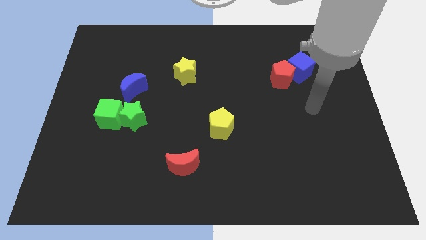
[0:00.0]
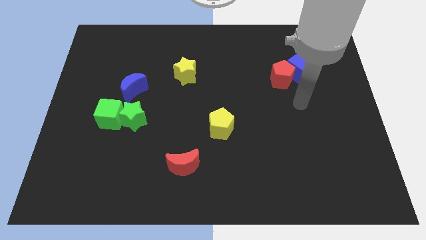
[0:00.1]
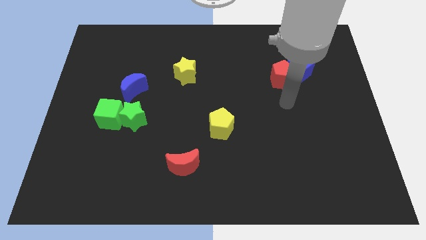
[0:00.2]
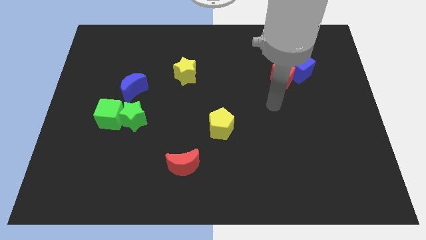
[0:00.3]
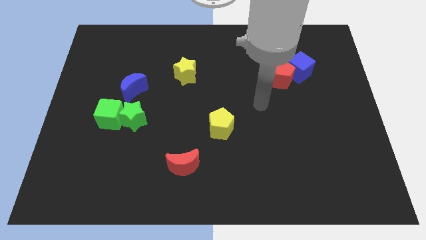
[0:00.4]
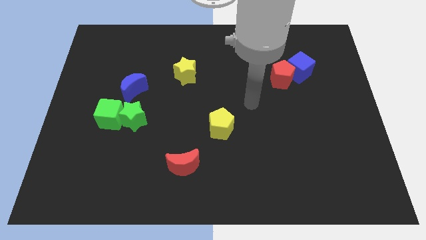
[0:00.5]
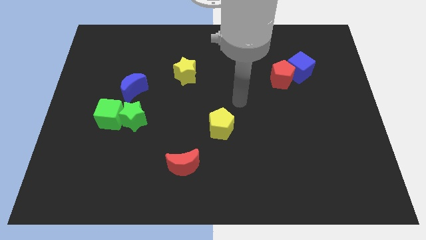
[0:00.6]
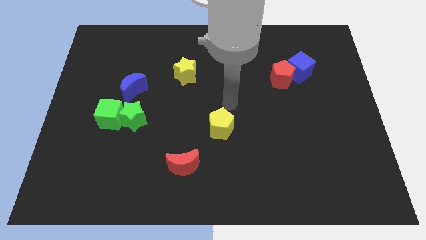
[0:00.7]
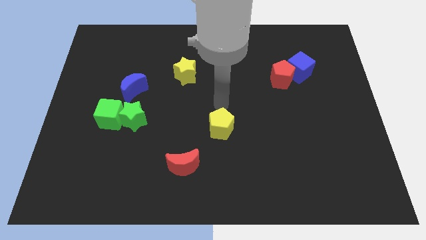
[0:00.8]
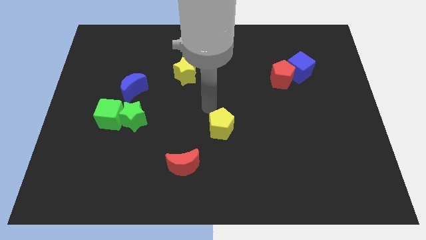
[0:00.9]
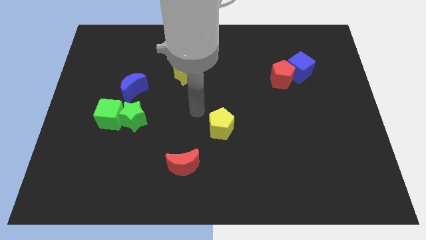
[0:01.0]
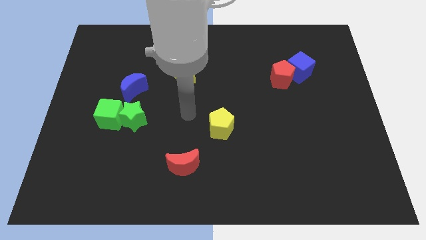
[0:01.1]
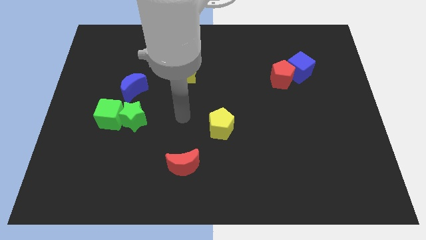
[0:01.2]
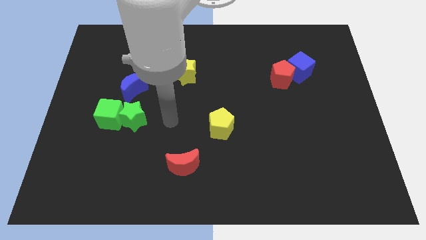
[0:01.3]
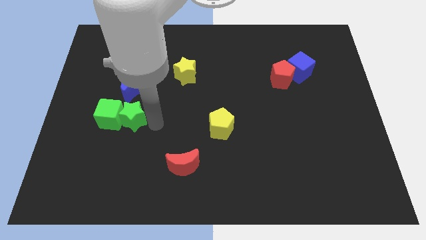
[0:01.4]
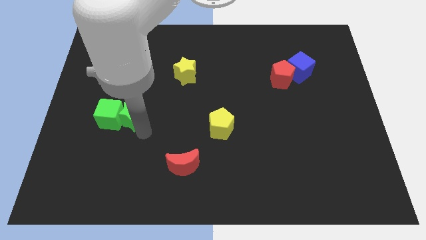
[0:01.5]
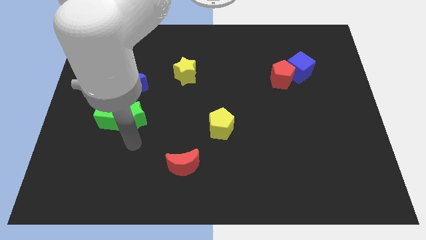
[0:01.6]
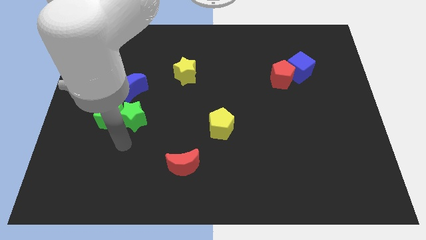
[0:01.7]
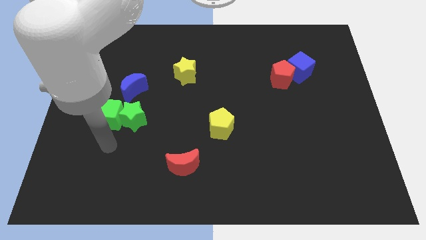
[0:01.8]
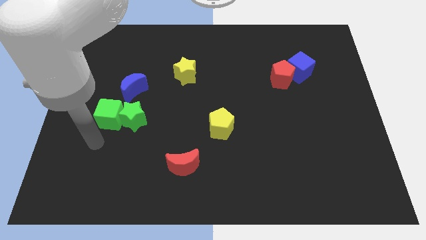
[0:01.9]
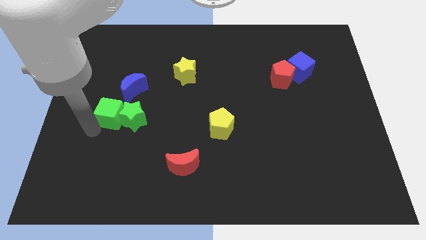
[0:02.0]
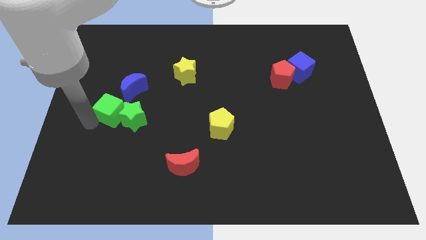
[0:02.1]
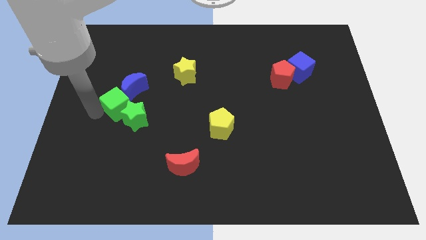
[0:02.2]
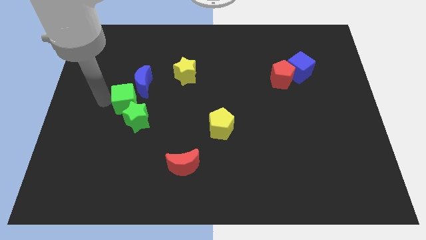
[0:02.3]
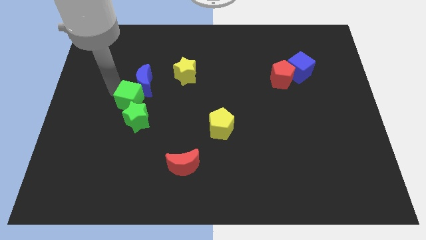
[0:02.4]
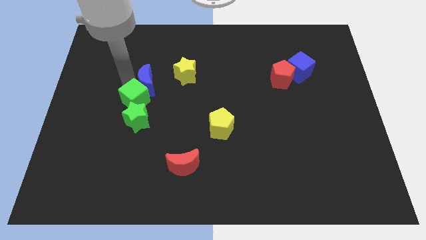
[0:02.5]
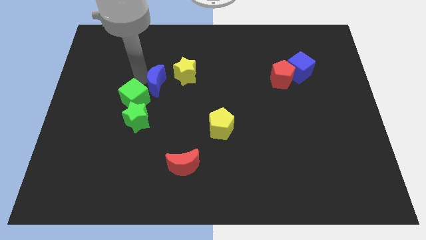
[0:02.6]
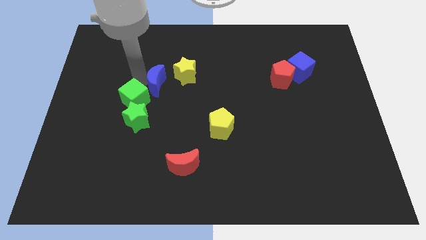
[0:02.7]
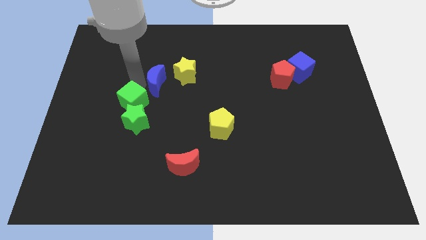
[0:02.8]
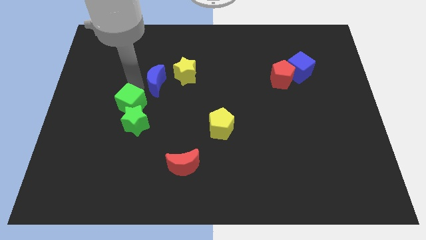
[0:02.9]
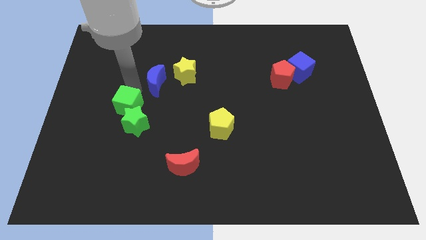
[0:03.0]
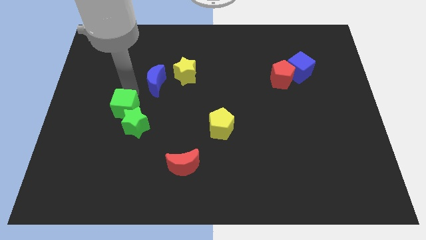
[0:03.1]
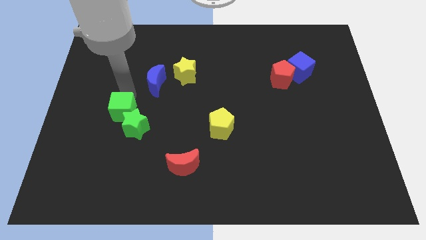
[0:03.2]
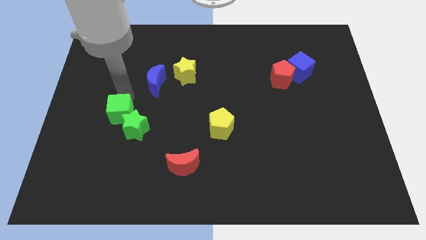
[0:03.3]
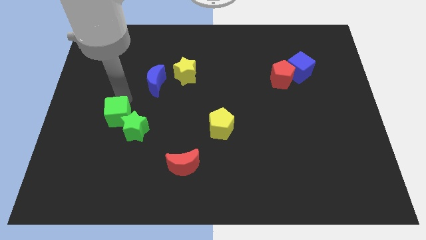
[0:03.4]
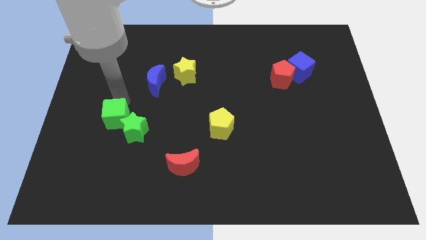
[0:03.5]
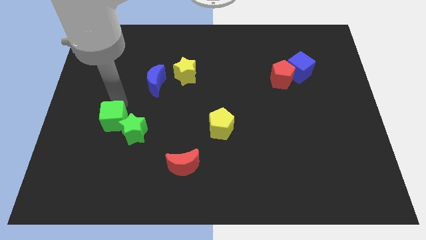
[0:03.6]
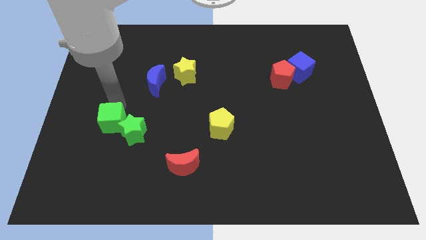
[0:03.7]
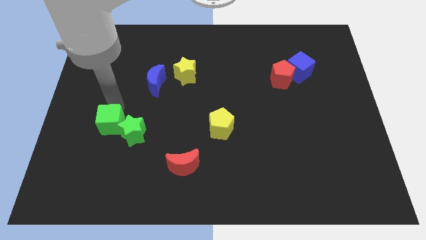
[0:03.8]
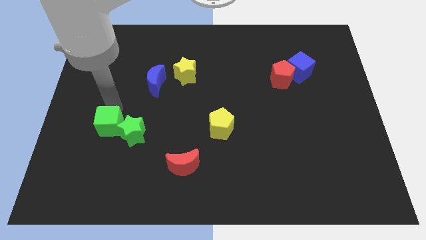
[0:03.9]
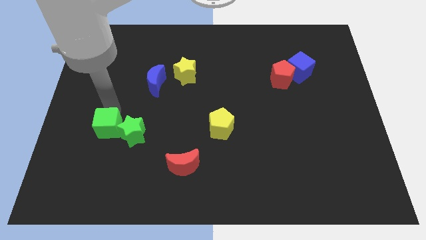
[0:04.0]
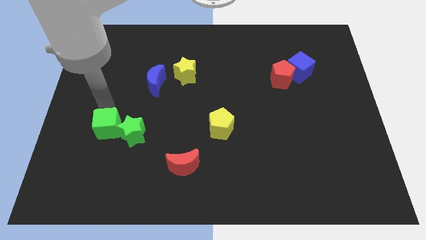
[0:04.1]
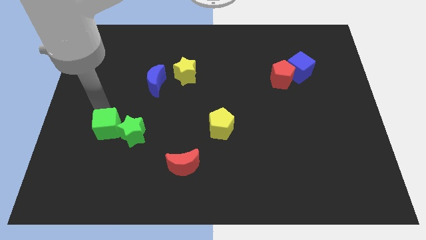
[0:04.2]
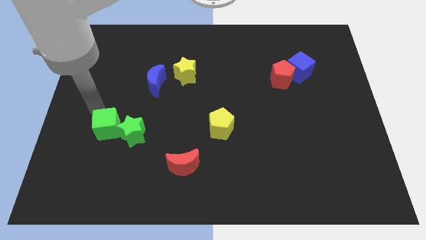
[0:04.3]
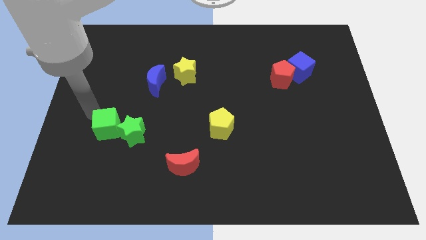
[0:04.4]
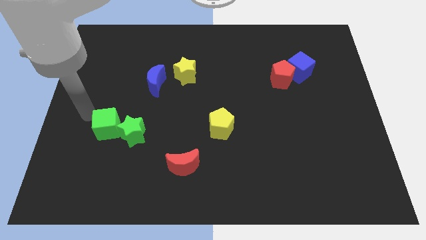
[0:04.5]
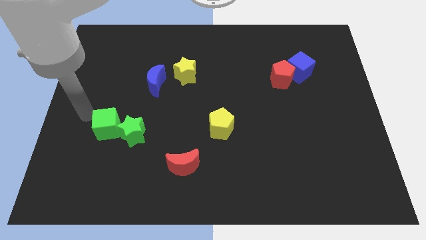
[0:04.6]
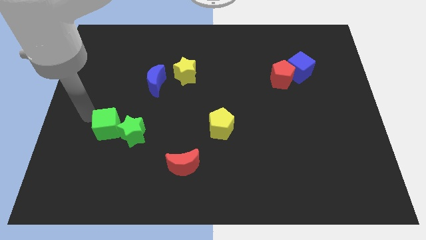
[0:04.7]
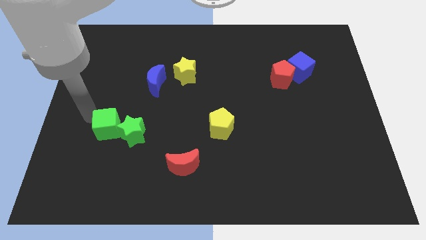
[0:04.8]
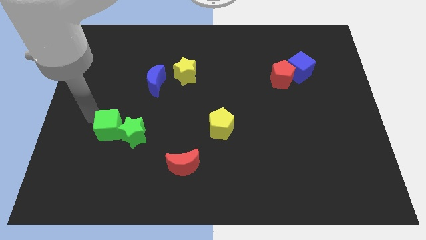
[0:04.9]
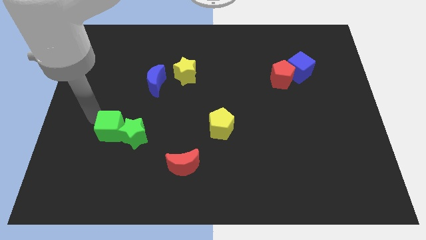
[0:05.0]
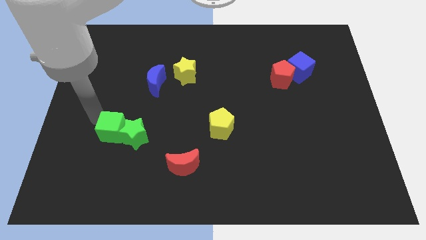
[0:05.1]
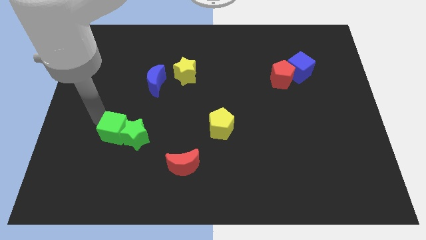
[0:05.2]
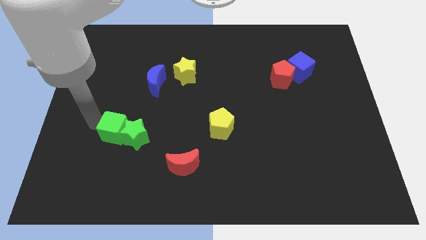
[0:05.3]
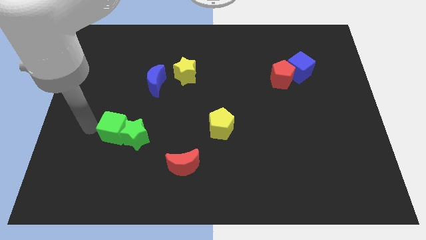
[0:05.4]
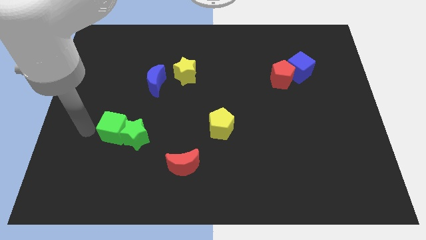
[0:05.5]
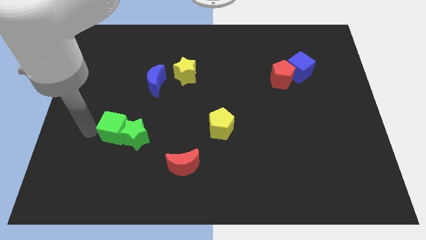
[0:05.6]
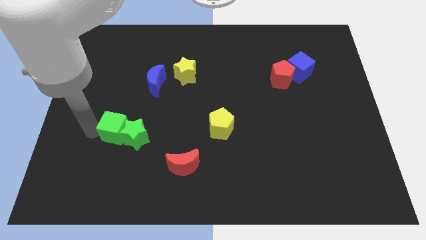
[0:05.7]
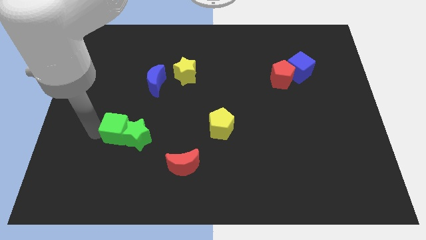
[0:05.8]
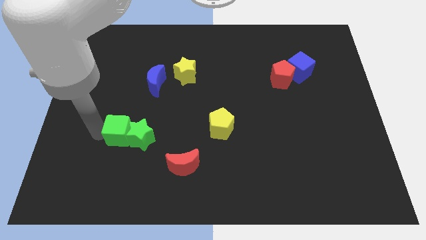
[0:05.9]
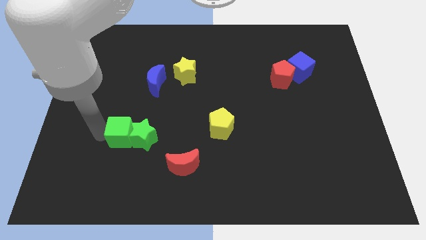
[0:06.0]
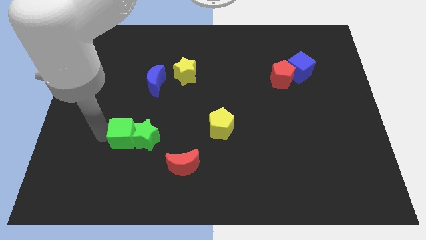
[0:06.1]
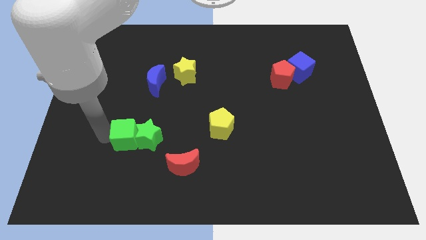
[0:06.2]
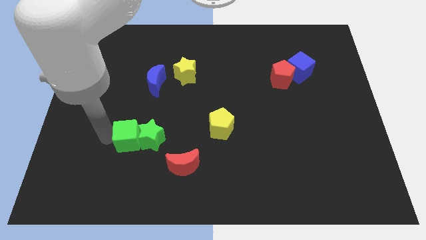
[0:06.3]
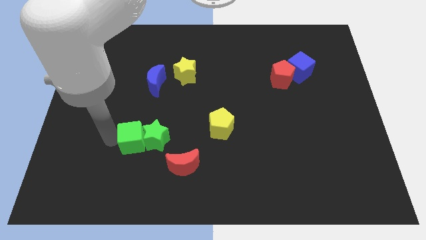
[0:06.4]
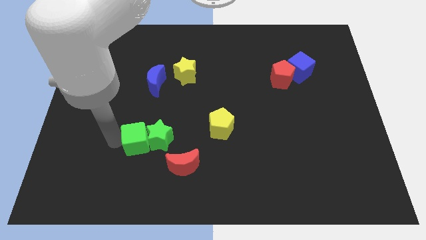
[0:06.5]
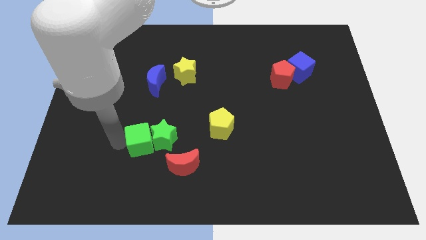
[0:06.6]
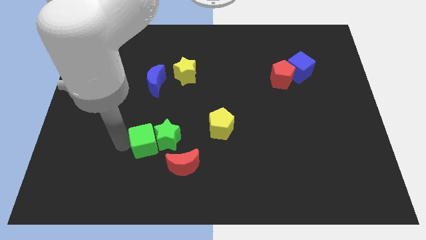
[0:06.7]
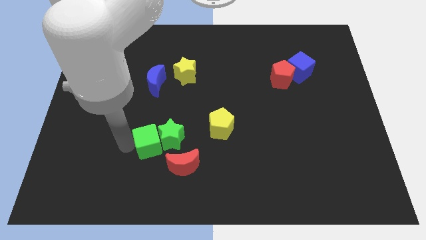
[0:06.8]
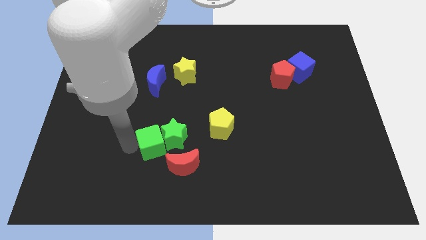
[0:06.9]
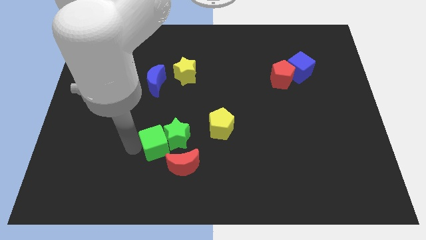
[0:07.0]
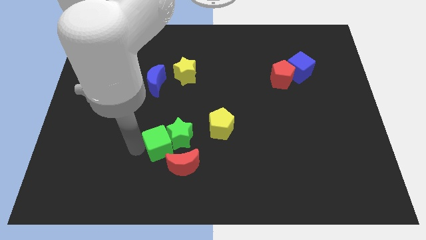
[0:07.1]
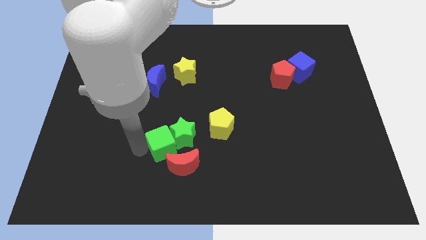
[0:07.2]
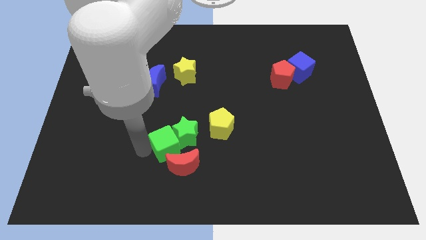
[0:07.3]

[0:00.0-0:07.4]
move the green cube just left of the yellow pentagon
